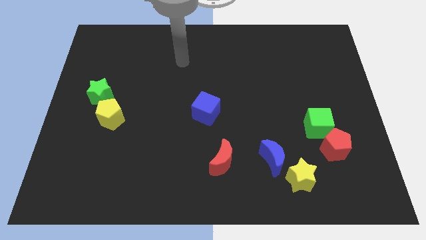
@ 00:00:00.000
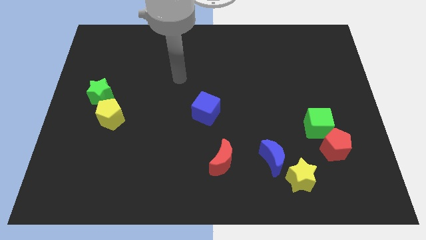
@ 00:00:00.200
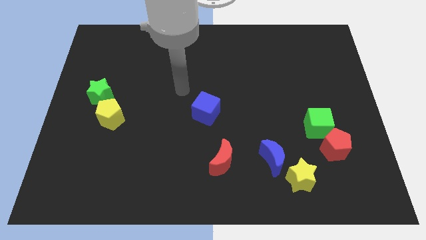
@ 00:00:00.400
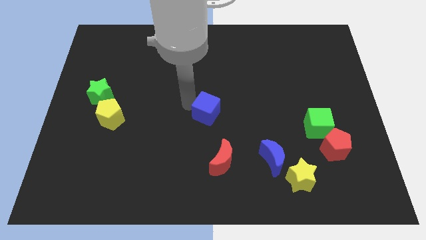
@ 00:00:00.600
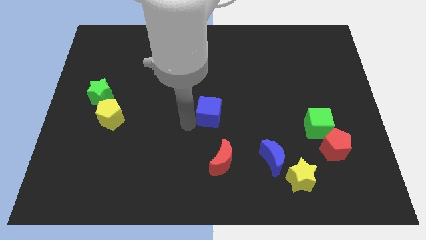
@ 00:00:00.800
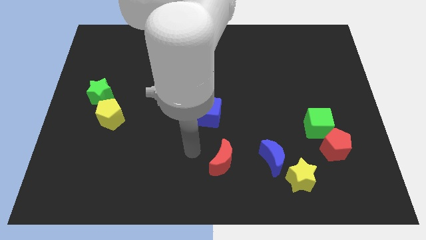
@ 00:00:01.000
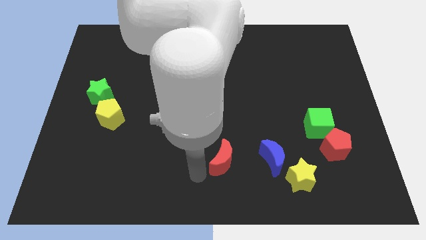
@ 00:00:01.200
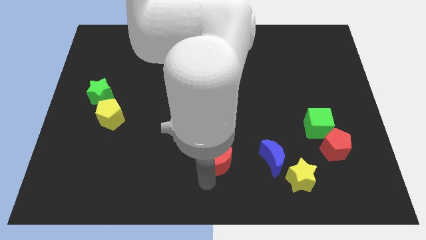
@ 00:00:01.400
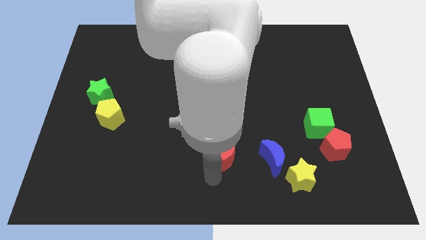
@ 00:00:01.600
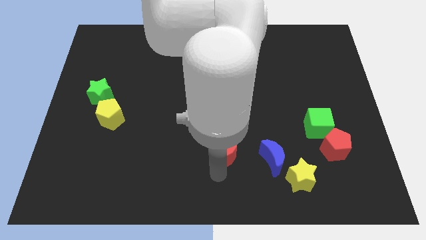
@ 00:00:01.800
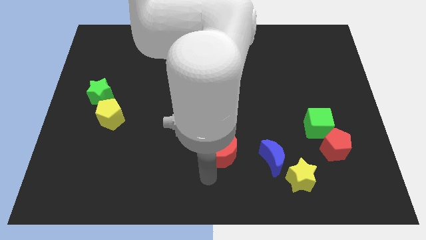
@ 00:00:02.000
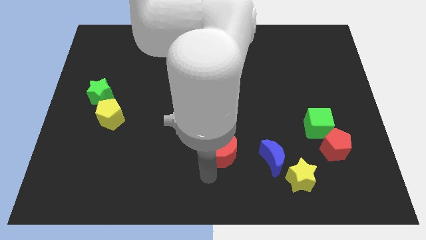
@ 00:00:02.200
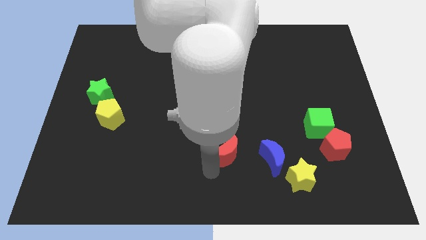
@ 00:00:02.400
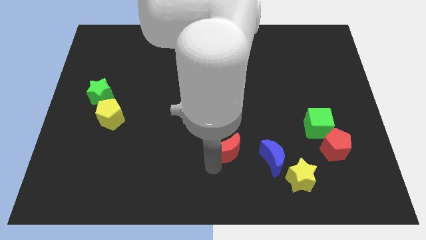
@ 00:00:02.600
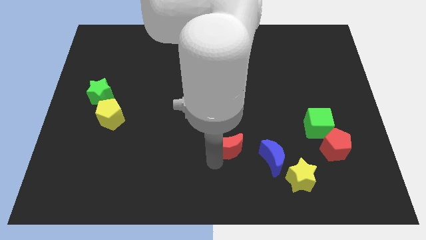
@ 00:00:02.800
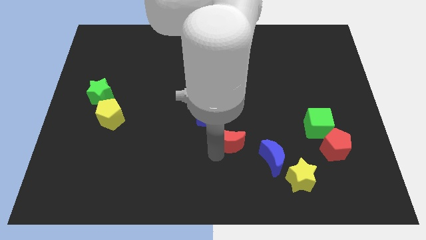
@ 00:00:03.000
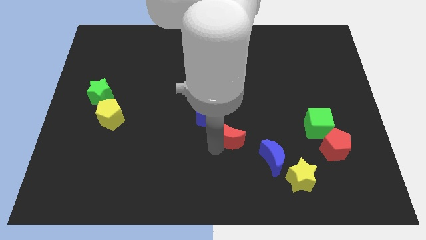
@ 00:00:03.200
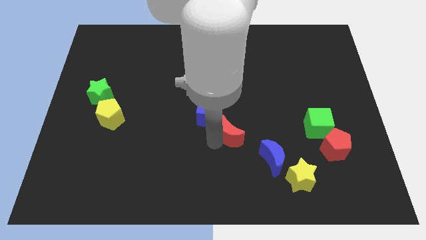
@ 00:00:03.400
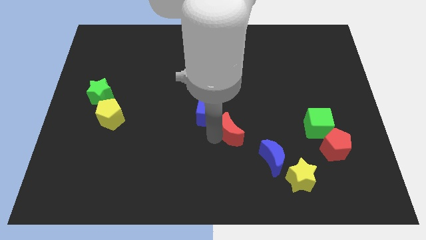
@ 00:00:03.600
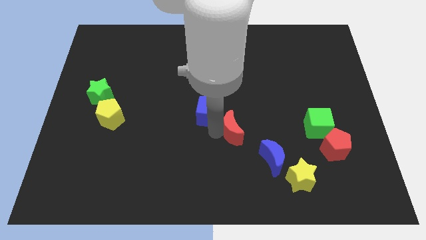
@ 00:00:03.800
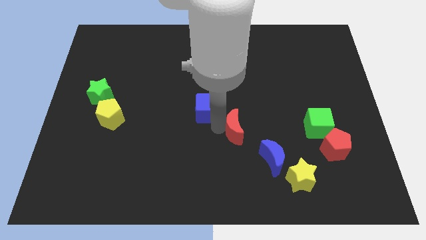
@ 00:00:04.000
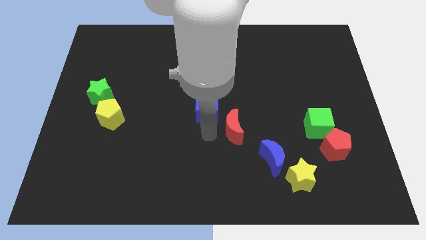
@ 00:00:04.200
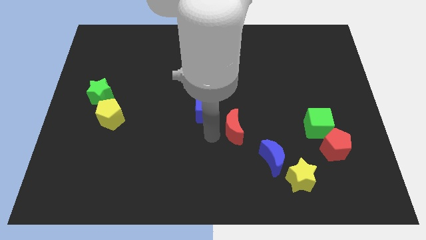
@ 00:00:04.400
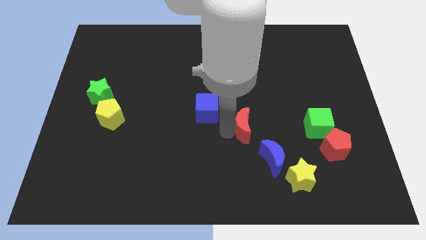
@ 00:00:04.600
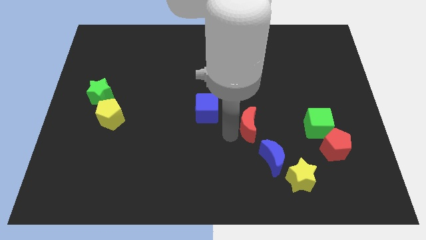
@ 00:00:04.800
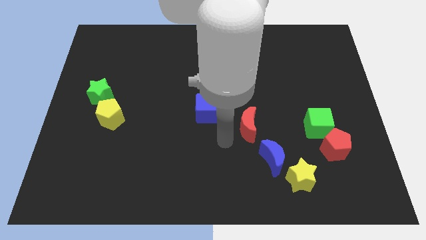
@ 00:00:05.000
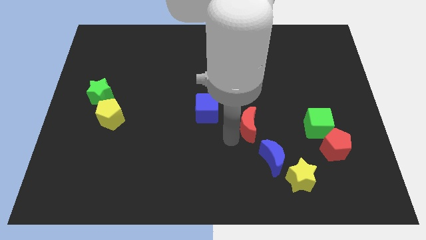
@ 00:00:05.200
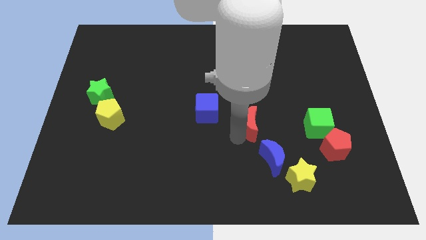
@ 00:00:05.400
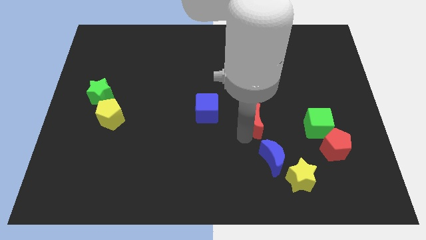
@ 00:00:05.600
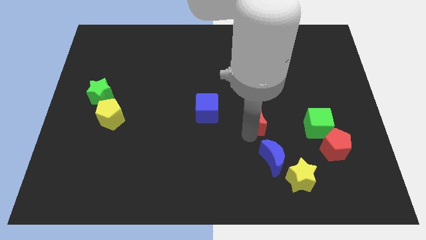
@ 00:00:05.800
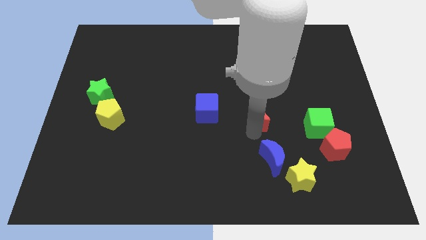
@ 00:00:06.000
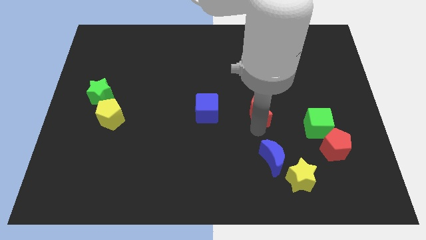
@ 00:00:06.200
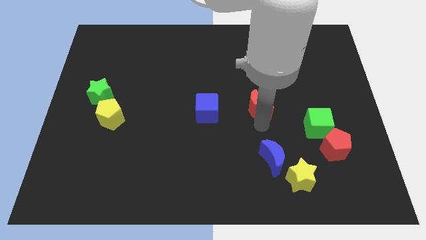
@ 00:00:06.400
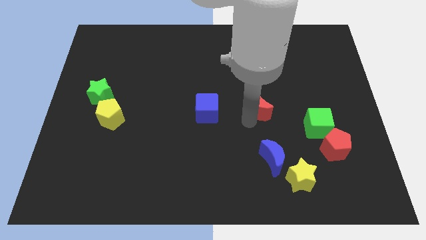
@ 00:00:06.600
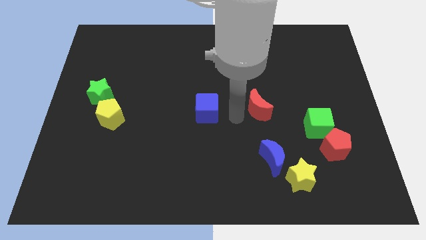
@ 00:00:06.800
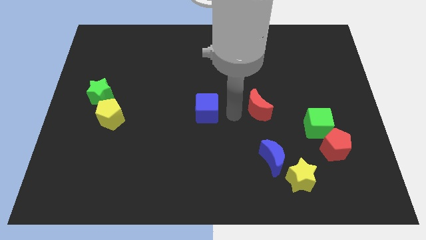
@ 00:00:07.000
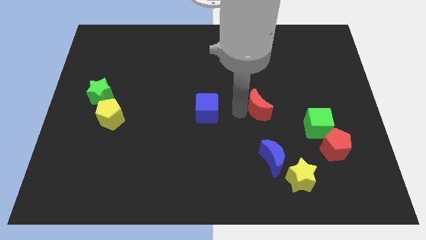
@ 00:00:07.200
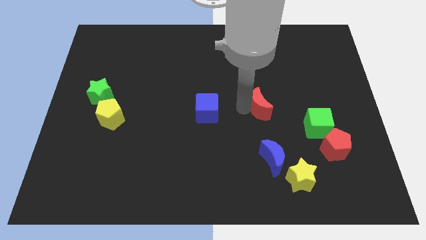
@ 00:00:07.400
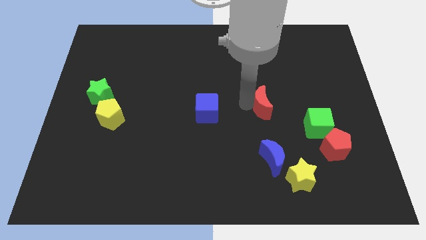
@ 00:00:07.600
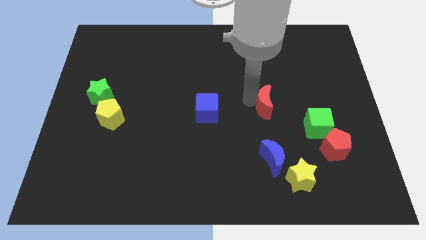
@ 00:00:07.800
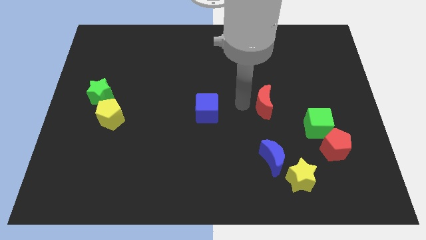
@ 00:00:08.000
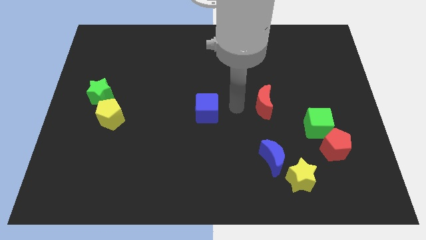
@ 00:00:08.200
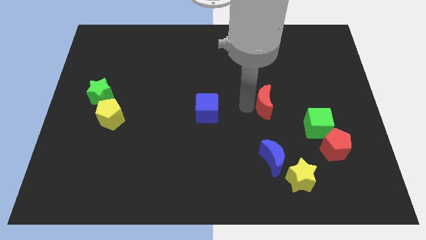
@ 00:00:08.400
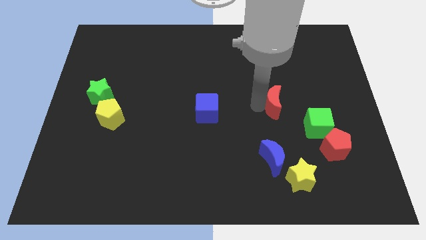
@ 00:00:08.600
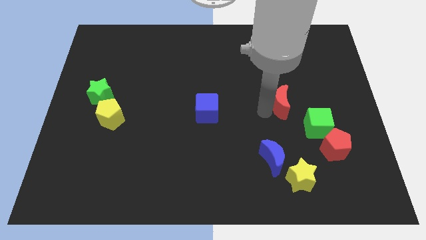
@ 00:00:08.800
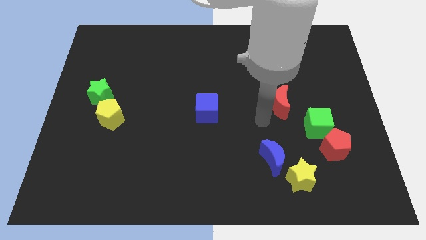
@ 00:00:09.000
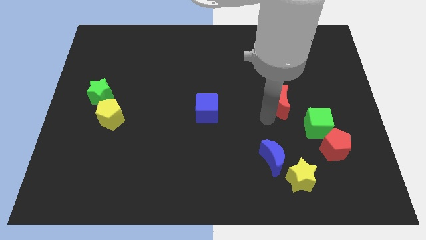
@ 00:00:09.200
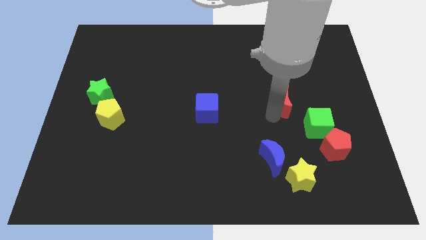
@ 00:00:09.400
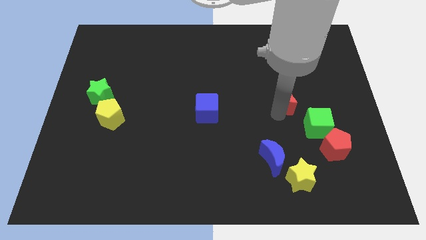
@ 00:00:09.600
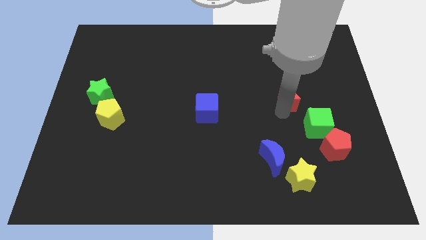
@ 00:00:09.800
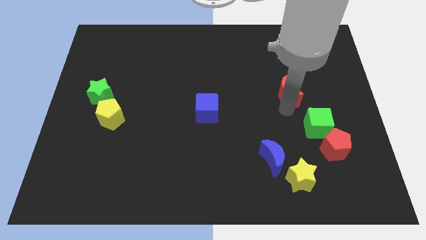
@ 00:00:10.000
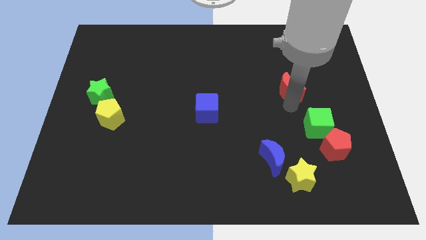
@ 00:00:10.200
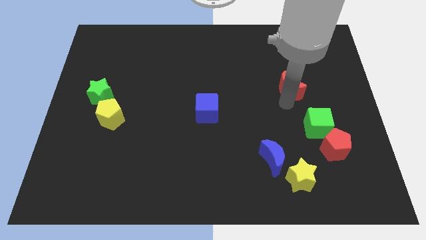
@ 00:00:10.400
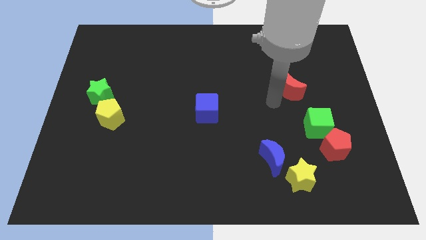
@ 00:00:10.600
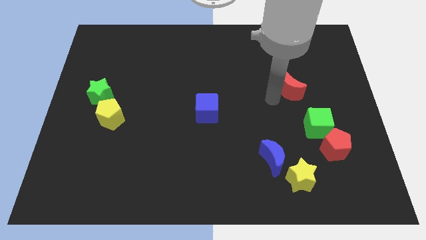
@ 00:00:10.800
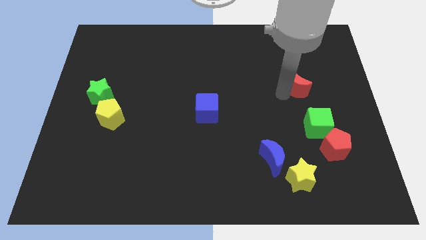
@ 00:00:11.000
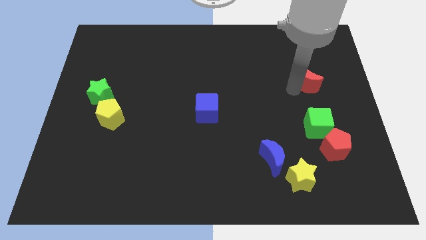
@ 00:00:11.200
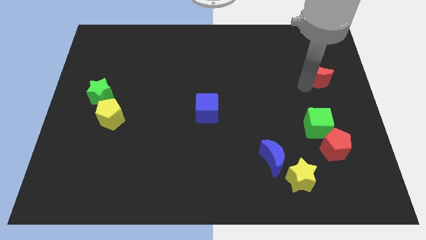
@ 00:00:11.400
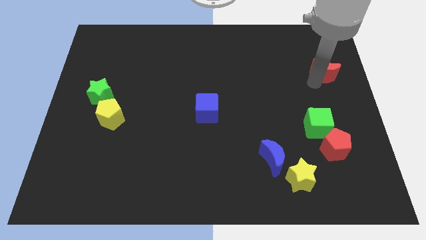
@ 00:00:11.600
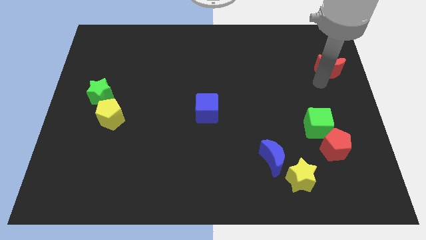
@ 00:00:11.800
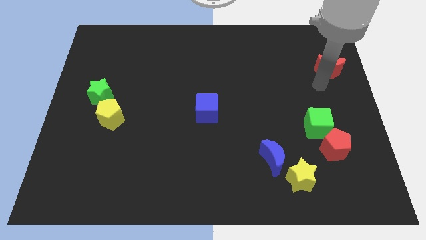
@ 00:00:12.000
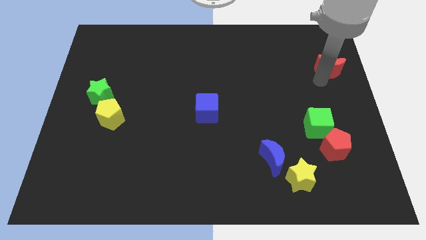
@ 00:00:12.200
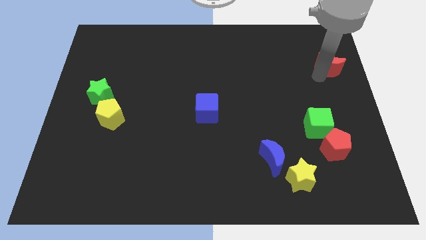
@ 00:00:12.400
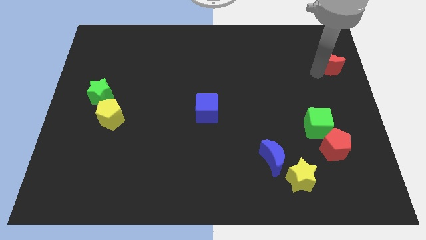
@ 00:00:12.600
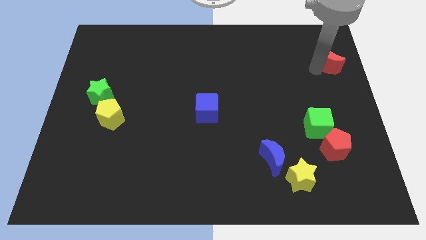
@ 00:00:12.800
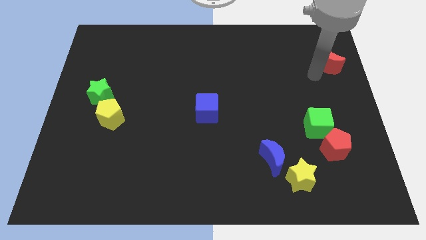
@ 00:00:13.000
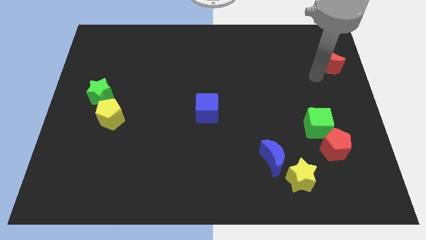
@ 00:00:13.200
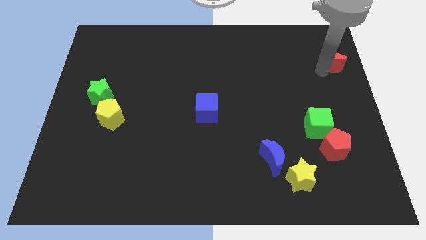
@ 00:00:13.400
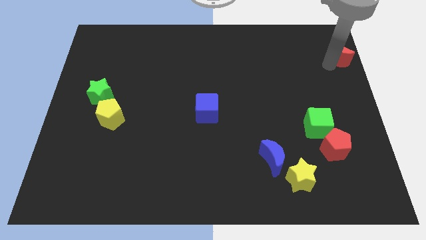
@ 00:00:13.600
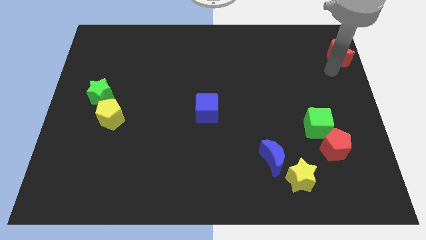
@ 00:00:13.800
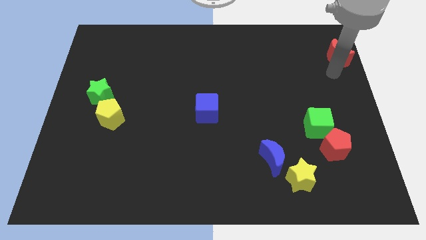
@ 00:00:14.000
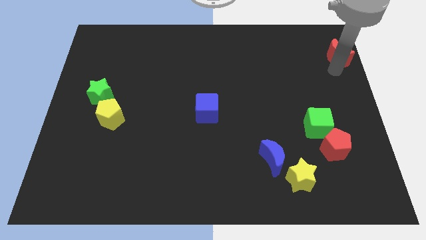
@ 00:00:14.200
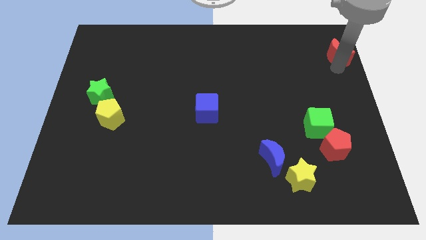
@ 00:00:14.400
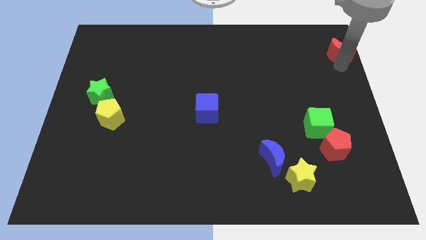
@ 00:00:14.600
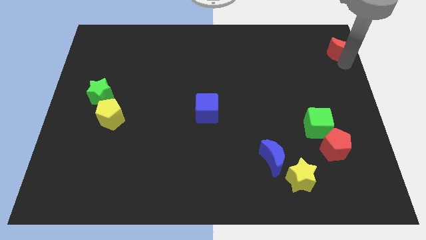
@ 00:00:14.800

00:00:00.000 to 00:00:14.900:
slide the red moon to the top right of the board
